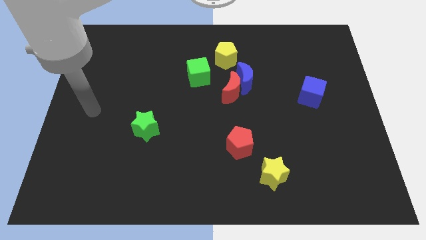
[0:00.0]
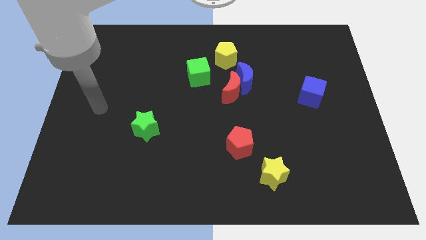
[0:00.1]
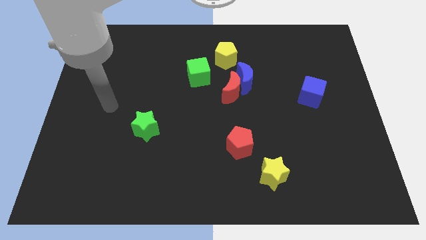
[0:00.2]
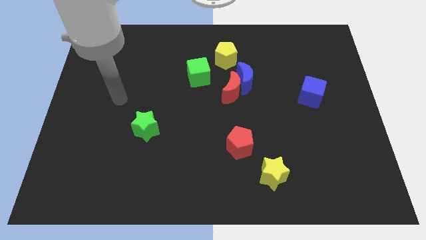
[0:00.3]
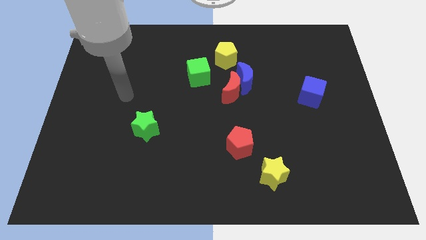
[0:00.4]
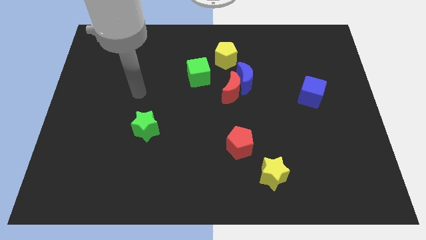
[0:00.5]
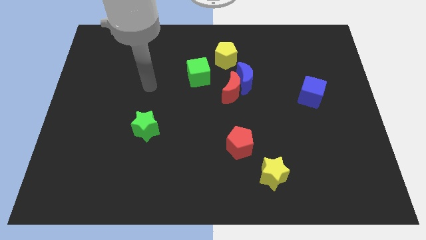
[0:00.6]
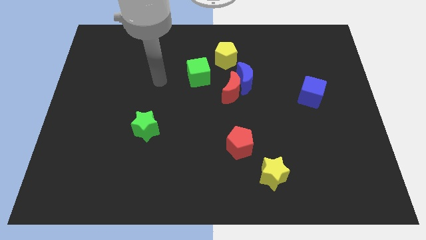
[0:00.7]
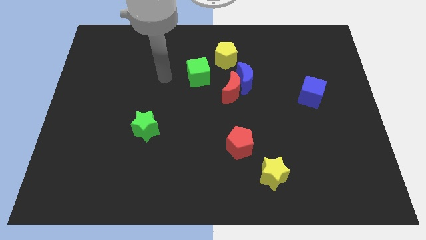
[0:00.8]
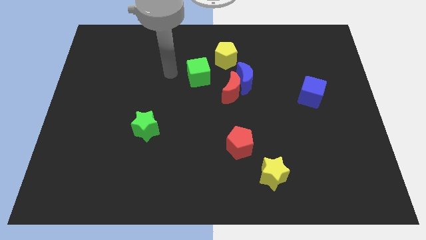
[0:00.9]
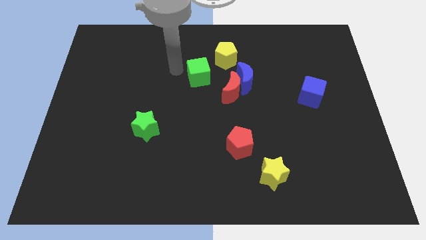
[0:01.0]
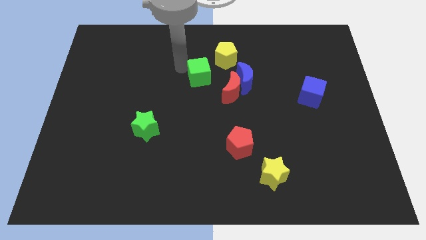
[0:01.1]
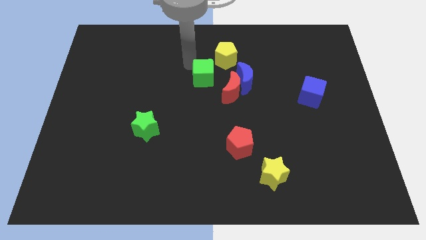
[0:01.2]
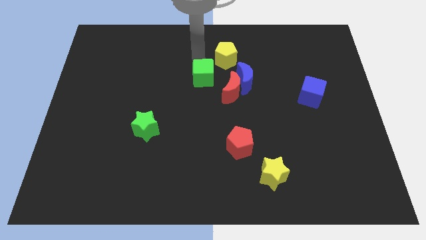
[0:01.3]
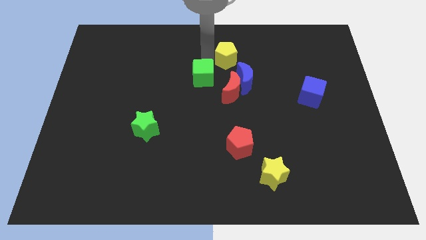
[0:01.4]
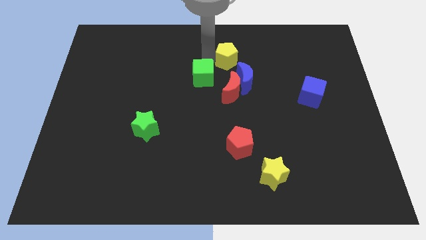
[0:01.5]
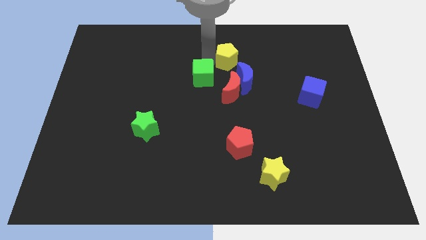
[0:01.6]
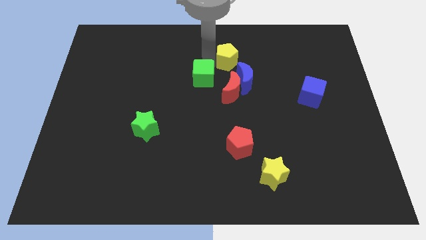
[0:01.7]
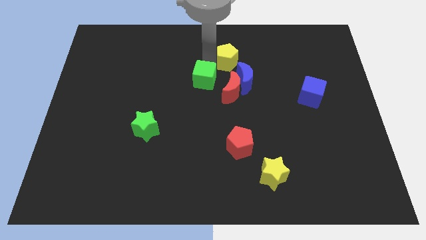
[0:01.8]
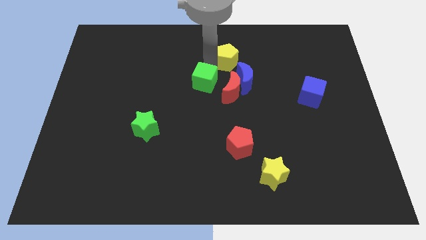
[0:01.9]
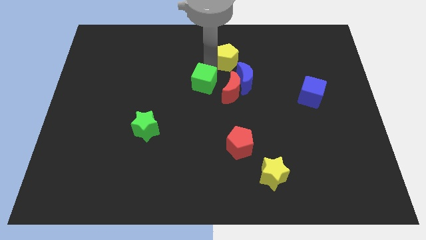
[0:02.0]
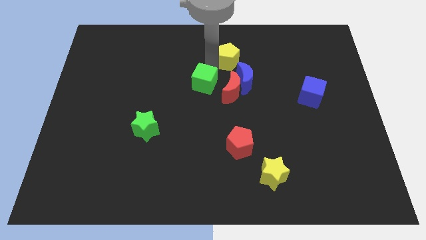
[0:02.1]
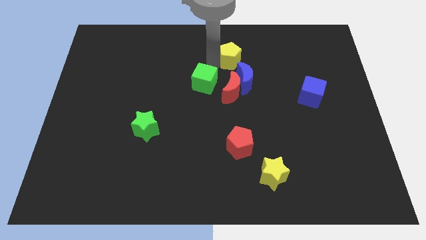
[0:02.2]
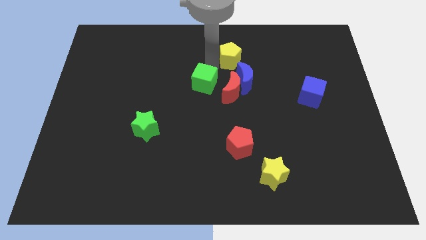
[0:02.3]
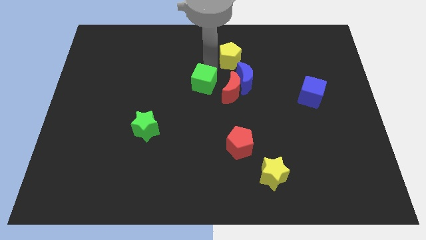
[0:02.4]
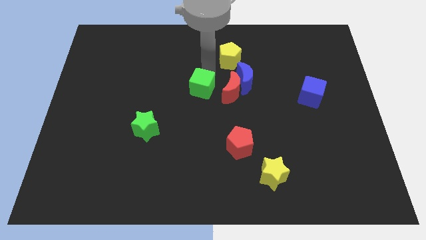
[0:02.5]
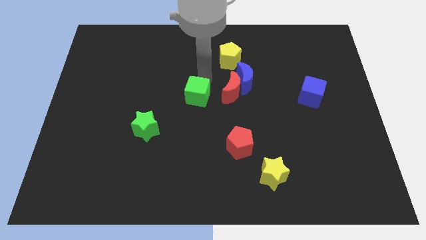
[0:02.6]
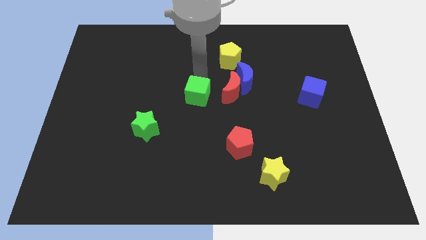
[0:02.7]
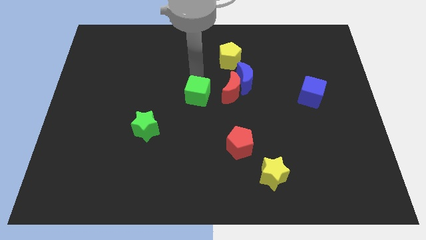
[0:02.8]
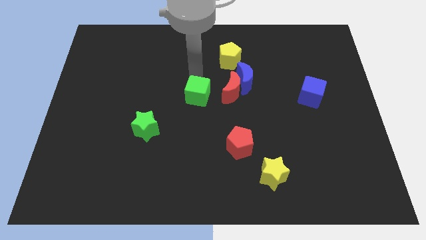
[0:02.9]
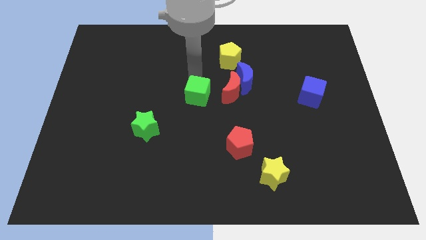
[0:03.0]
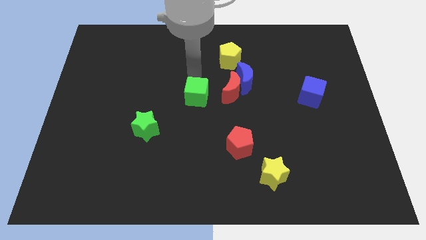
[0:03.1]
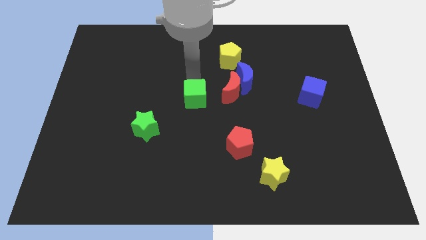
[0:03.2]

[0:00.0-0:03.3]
slightly slide the green cube downwards

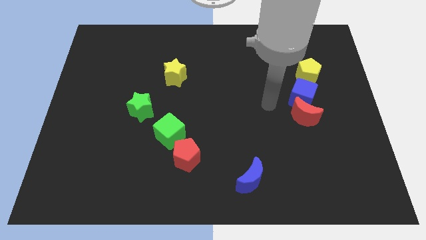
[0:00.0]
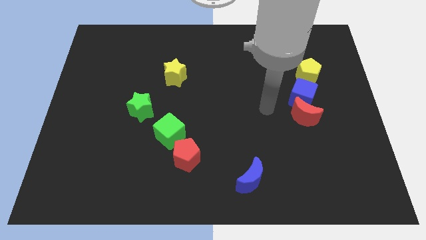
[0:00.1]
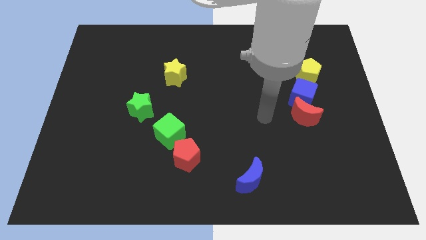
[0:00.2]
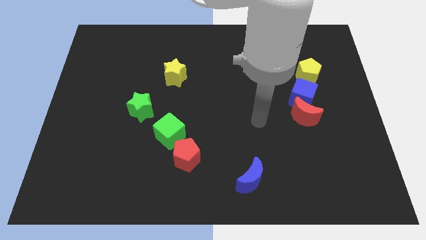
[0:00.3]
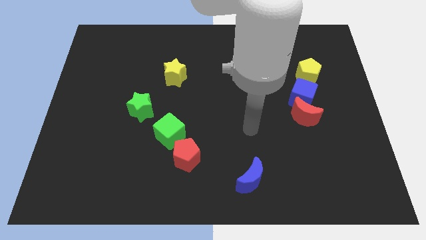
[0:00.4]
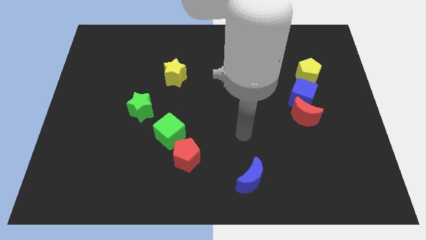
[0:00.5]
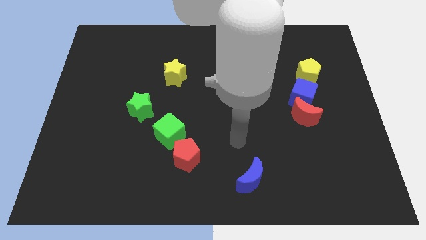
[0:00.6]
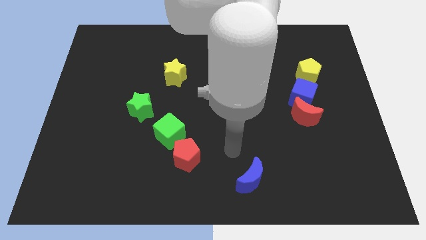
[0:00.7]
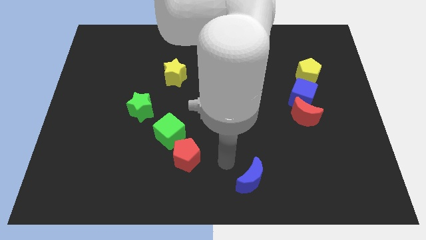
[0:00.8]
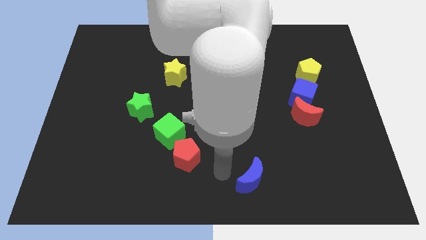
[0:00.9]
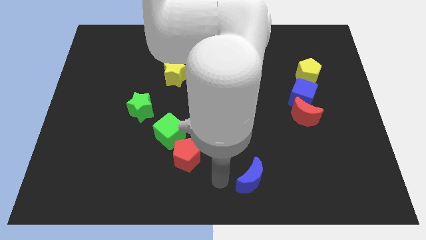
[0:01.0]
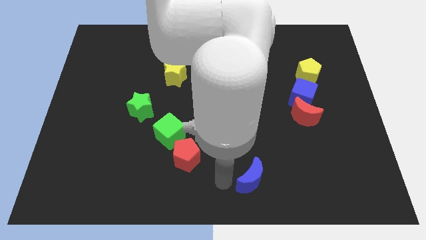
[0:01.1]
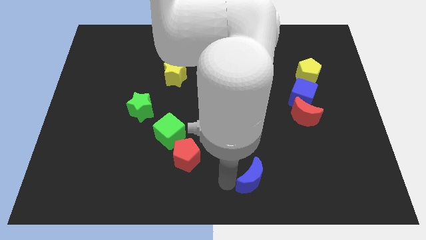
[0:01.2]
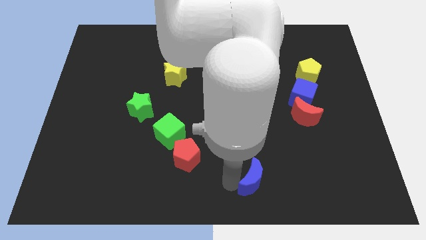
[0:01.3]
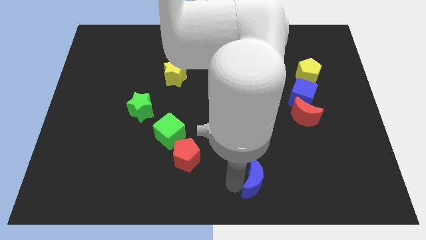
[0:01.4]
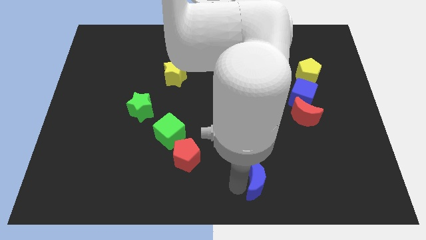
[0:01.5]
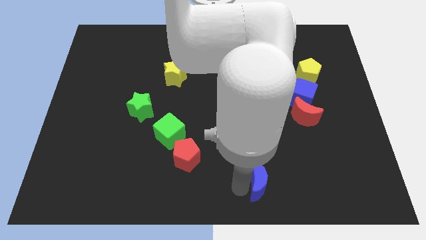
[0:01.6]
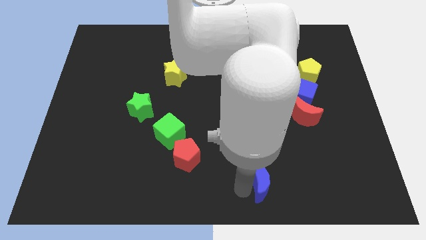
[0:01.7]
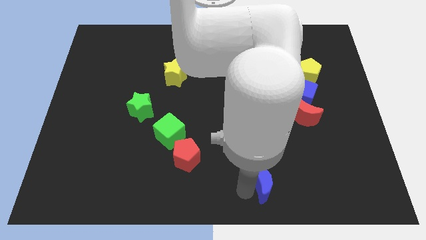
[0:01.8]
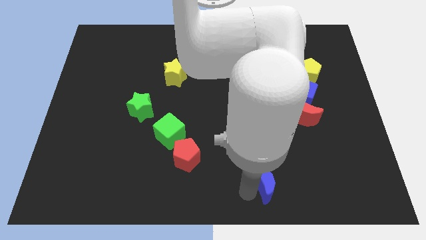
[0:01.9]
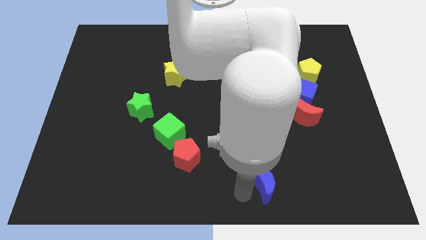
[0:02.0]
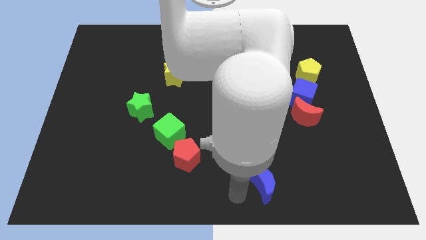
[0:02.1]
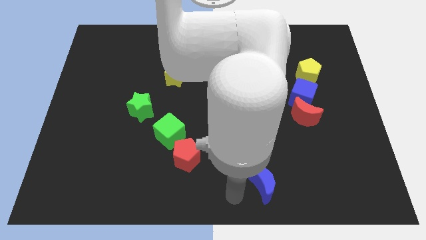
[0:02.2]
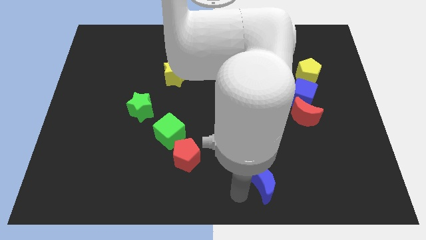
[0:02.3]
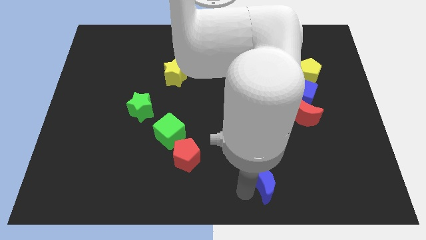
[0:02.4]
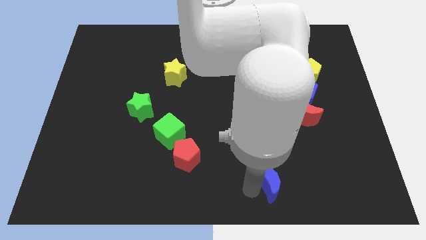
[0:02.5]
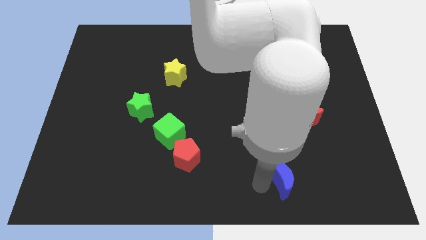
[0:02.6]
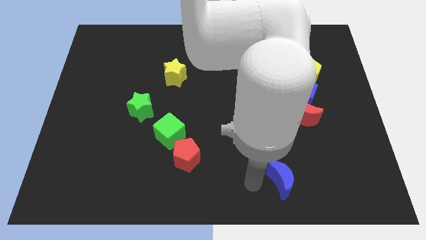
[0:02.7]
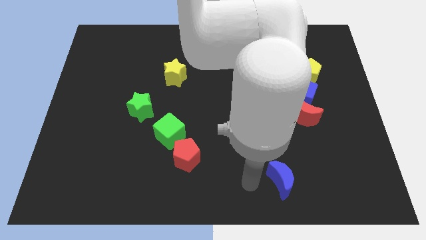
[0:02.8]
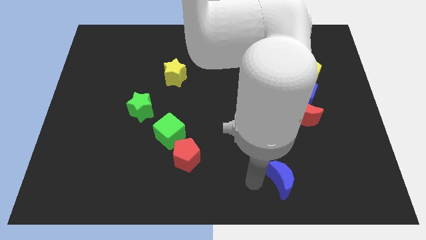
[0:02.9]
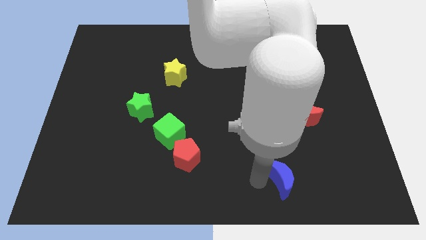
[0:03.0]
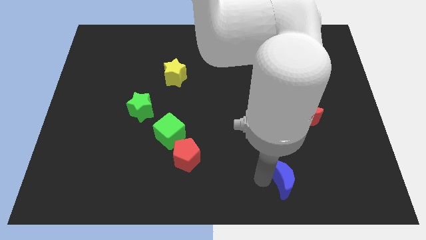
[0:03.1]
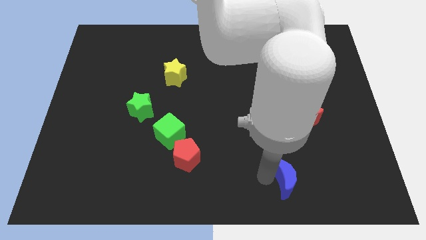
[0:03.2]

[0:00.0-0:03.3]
move the blue moon somewhat right

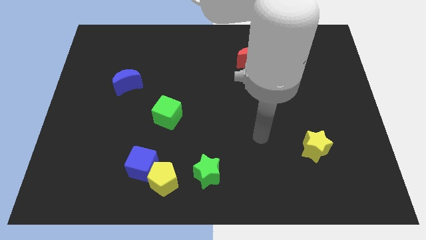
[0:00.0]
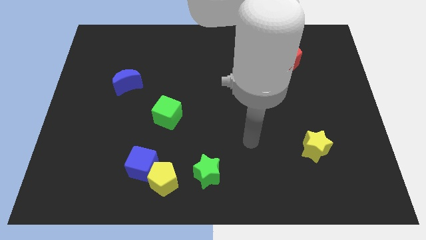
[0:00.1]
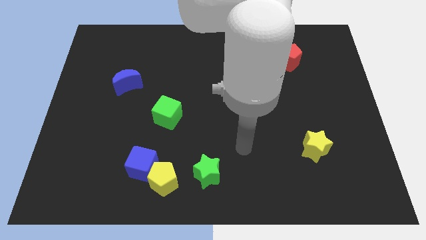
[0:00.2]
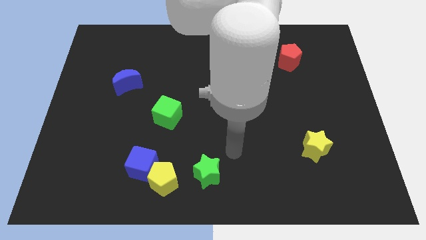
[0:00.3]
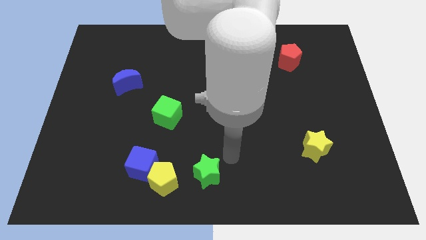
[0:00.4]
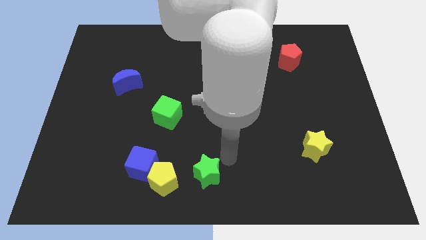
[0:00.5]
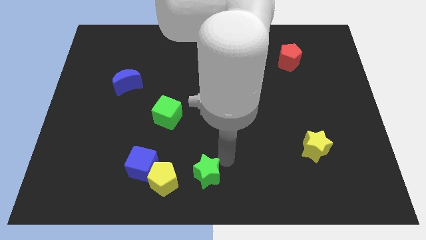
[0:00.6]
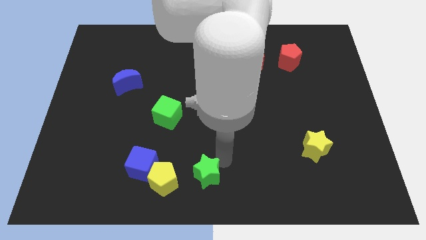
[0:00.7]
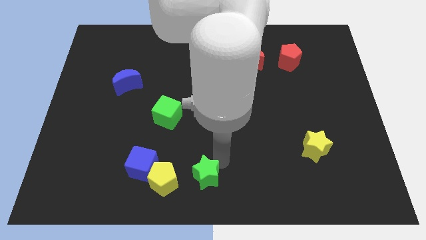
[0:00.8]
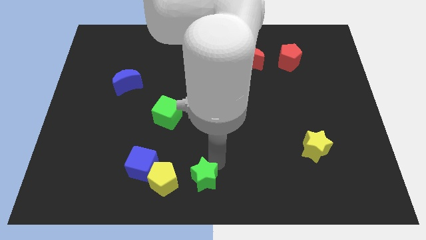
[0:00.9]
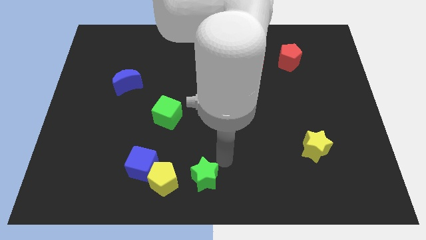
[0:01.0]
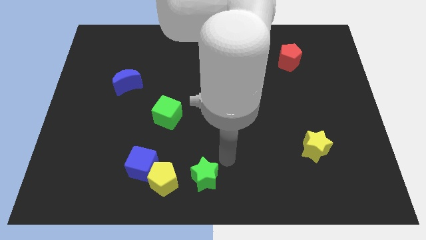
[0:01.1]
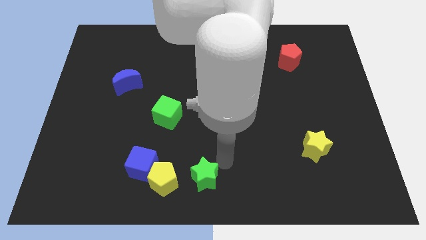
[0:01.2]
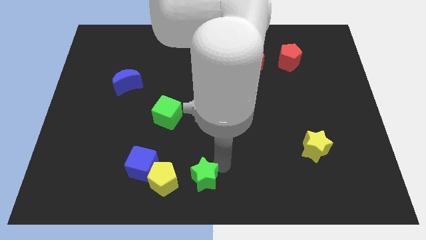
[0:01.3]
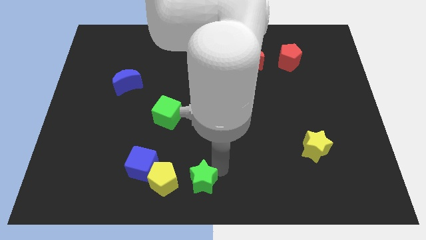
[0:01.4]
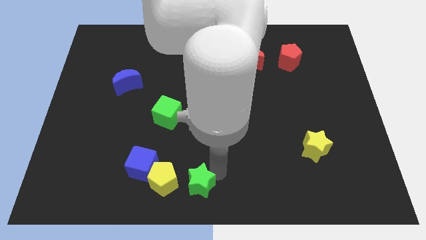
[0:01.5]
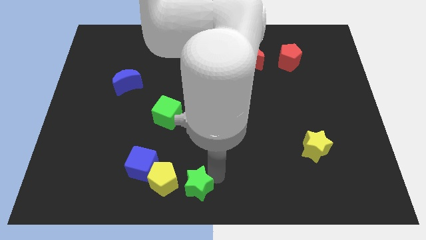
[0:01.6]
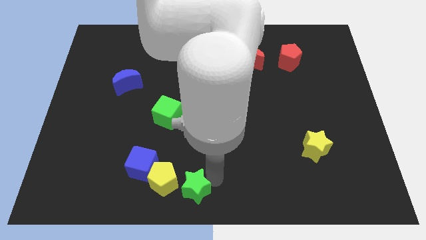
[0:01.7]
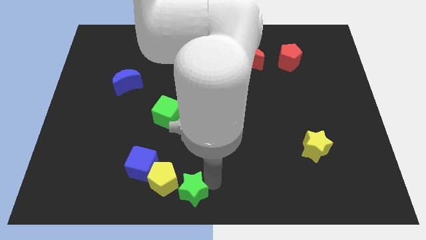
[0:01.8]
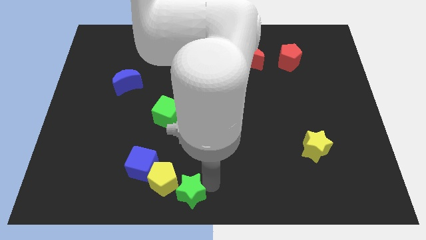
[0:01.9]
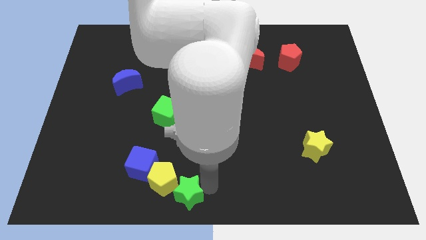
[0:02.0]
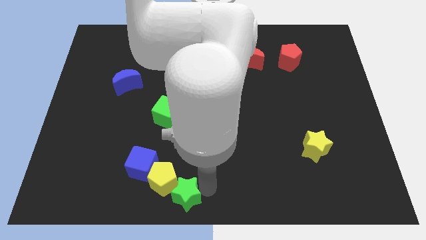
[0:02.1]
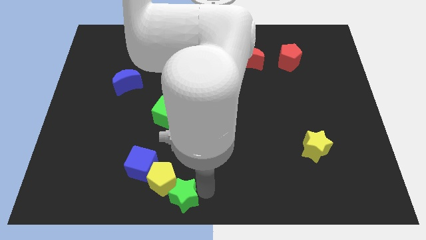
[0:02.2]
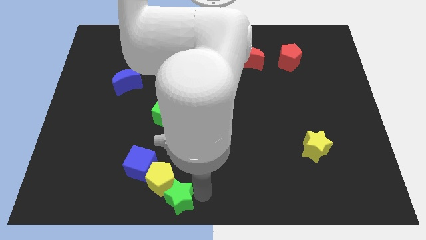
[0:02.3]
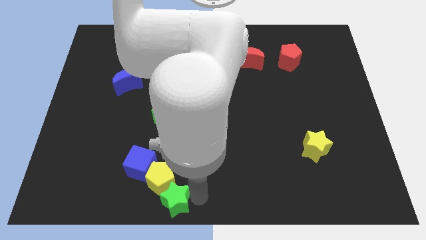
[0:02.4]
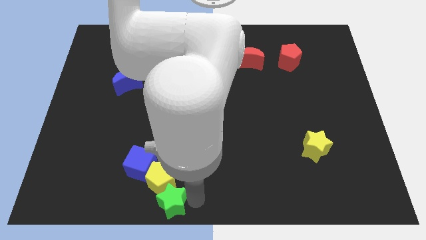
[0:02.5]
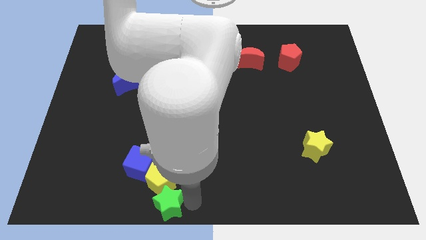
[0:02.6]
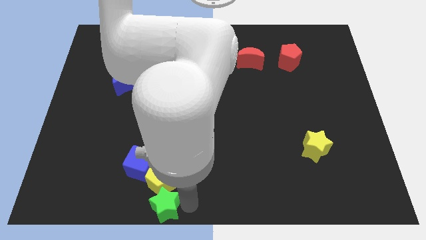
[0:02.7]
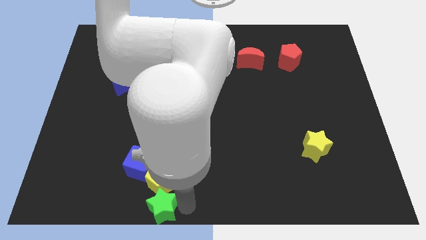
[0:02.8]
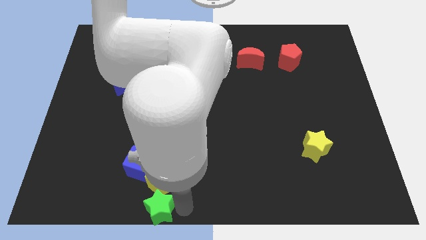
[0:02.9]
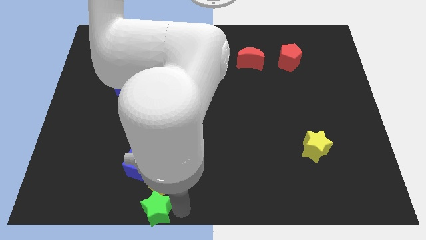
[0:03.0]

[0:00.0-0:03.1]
slightly push the green star to the left
